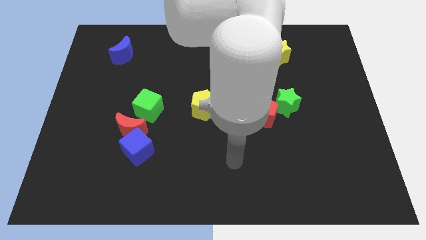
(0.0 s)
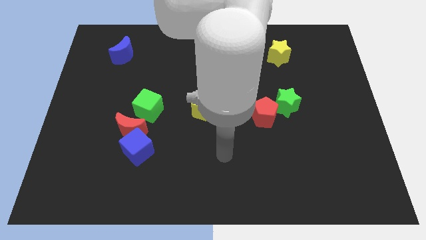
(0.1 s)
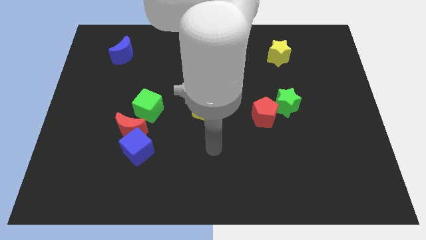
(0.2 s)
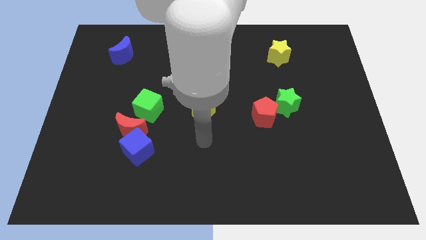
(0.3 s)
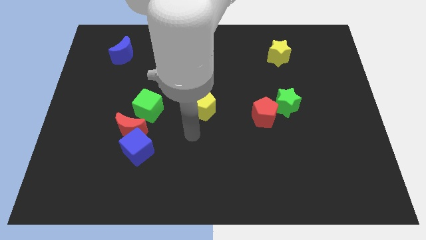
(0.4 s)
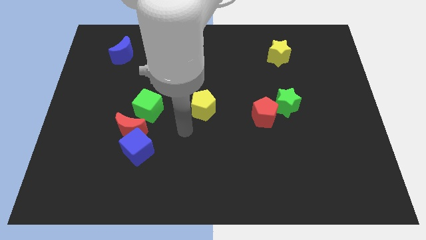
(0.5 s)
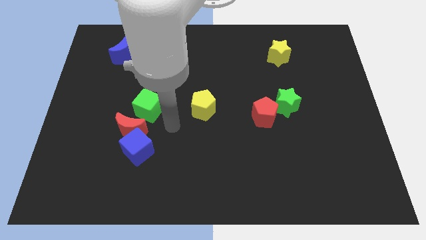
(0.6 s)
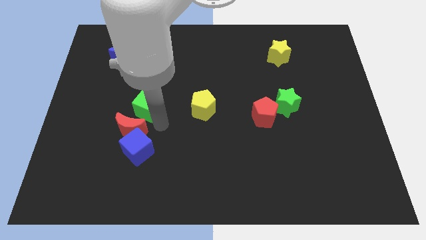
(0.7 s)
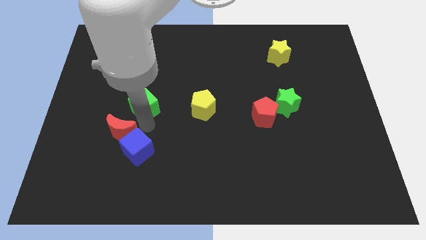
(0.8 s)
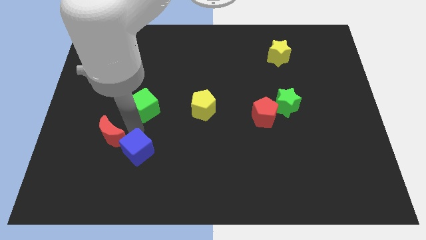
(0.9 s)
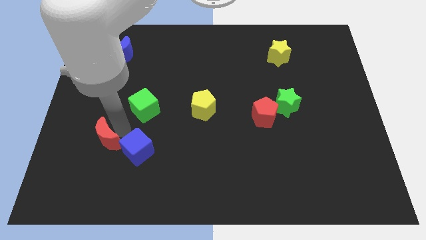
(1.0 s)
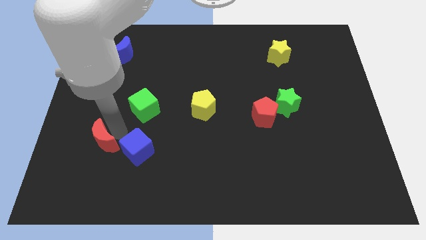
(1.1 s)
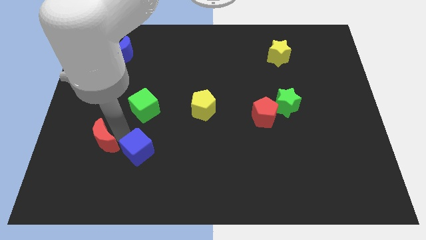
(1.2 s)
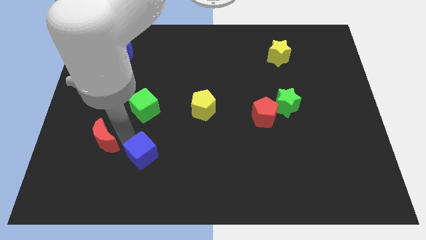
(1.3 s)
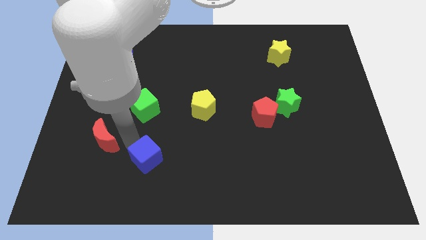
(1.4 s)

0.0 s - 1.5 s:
separate the blue cube from the red moon

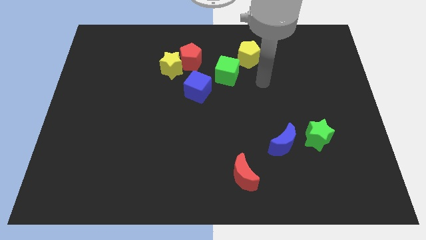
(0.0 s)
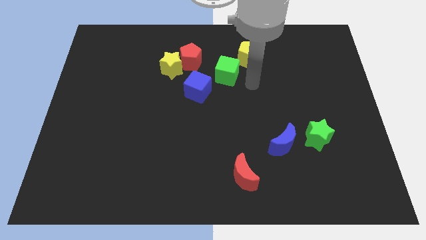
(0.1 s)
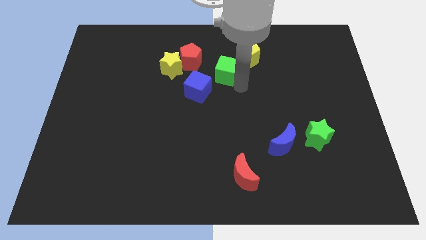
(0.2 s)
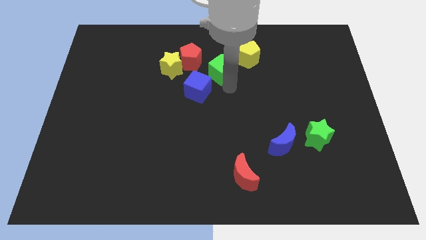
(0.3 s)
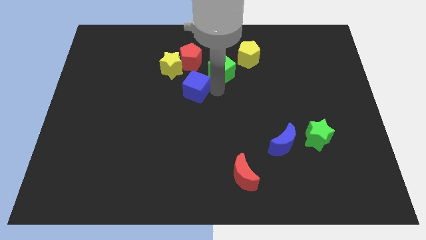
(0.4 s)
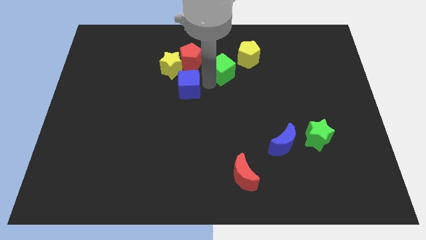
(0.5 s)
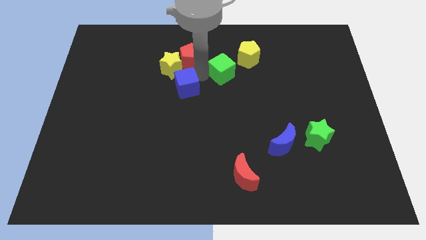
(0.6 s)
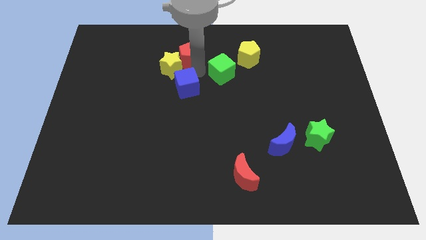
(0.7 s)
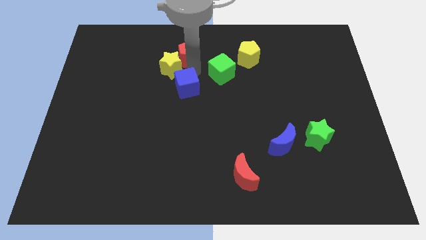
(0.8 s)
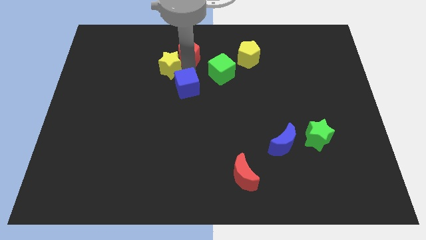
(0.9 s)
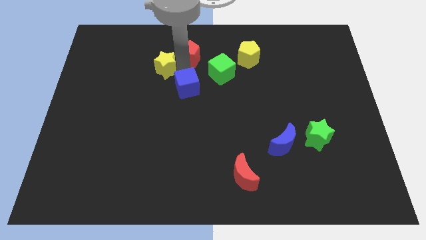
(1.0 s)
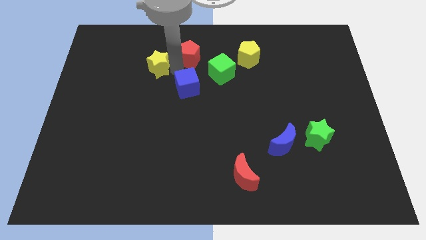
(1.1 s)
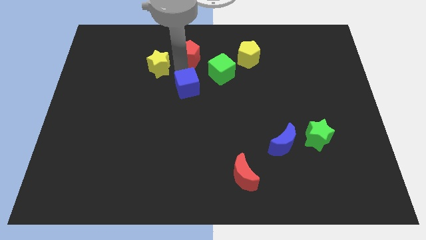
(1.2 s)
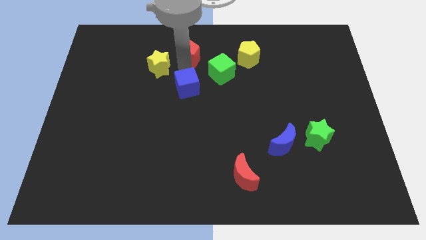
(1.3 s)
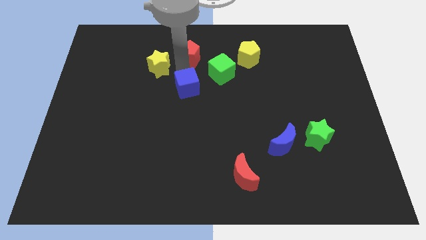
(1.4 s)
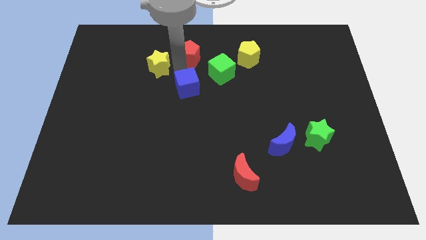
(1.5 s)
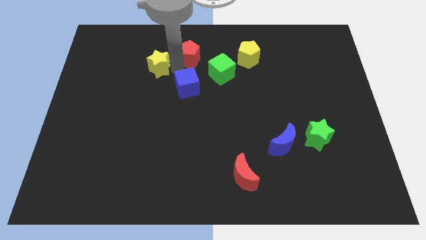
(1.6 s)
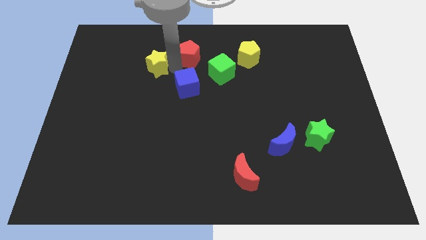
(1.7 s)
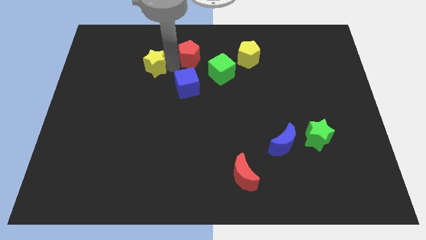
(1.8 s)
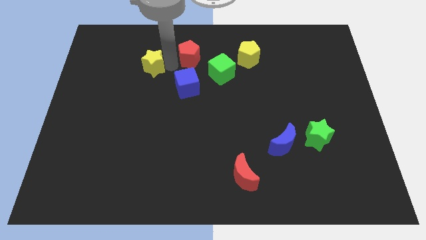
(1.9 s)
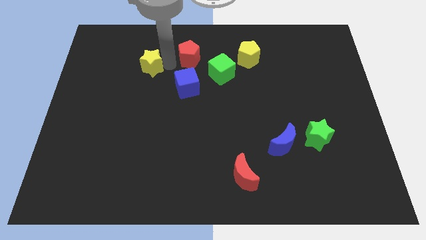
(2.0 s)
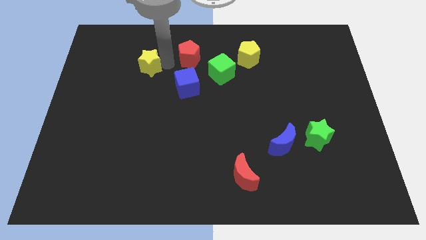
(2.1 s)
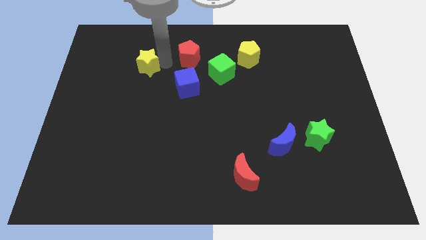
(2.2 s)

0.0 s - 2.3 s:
move the yellow star away from the red pentagon and blue cube

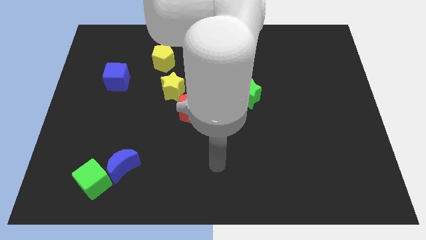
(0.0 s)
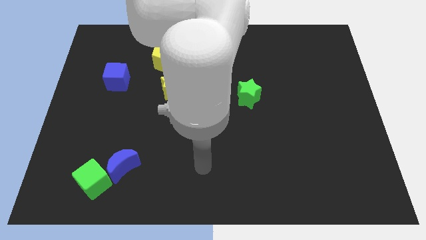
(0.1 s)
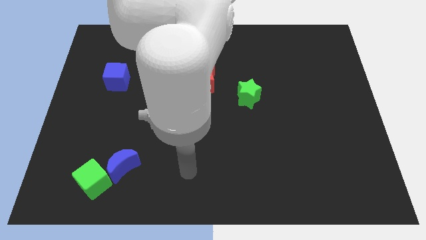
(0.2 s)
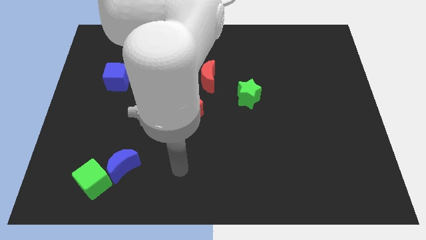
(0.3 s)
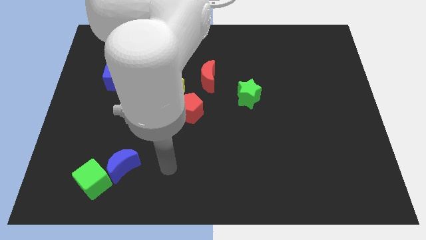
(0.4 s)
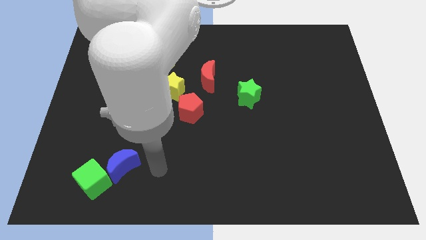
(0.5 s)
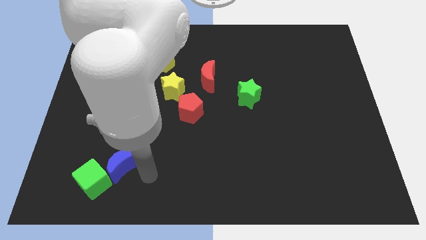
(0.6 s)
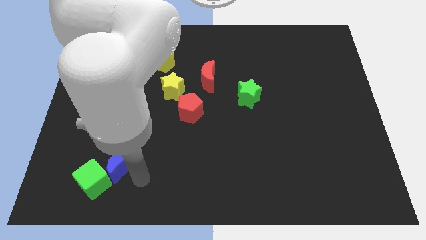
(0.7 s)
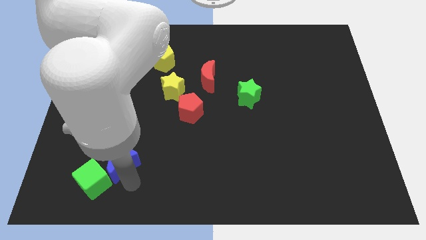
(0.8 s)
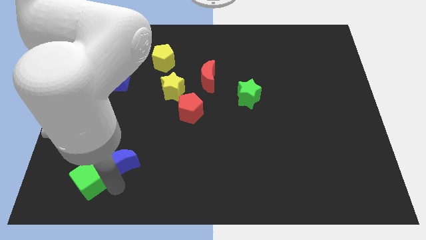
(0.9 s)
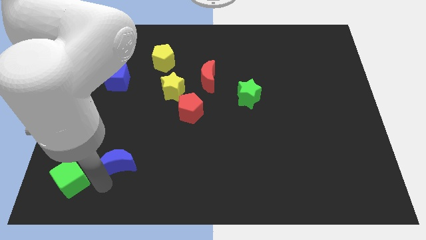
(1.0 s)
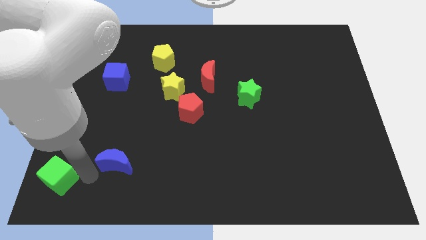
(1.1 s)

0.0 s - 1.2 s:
pull the blue moon apart from the green cube

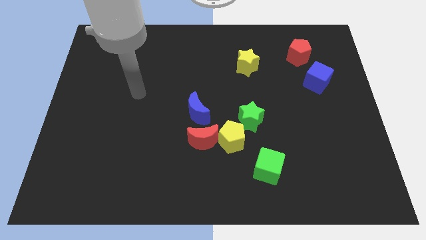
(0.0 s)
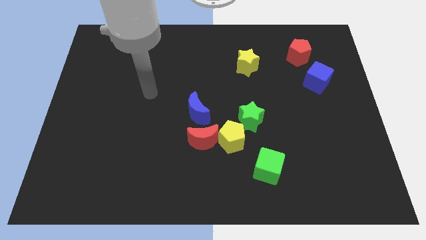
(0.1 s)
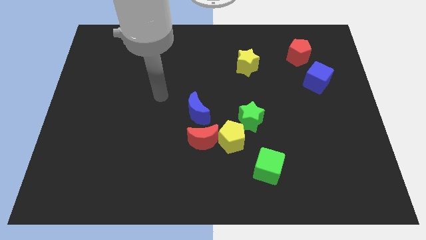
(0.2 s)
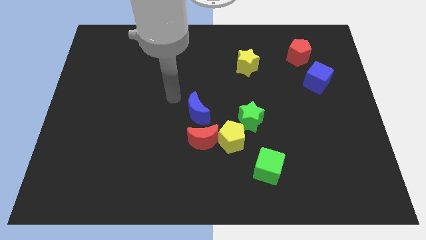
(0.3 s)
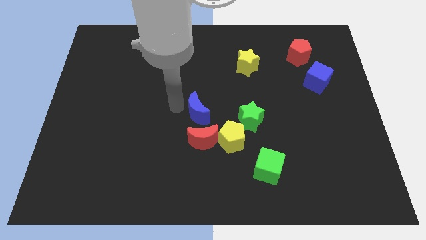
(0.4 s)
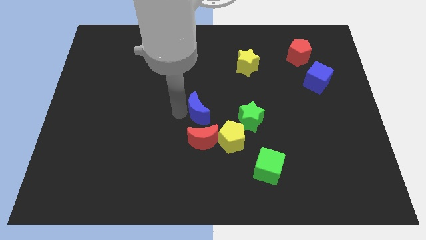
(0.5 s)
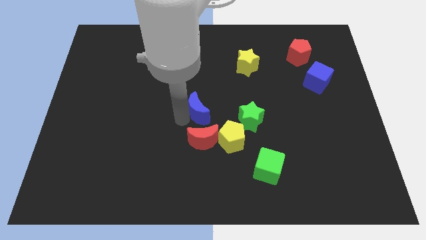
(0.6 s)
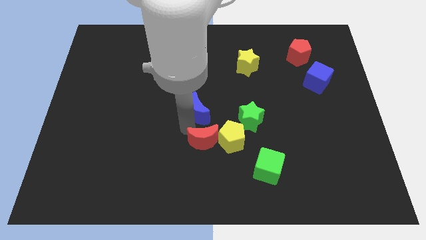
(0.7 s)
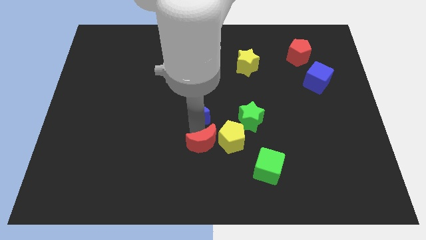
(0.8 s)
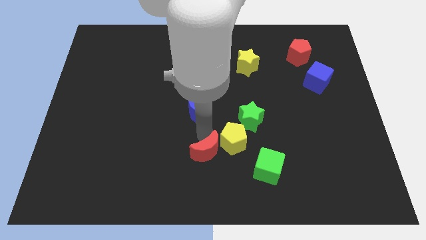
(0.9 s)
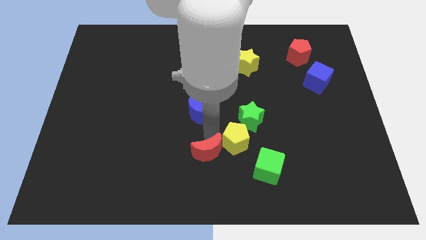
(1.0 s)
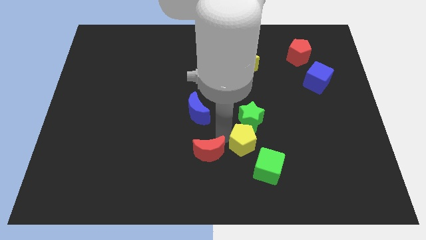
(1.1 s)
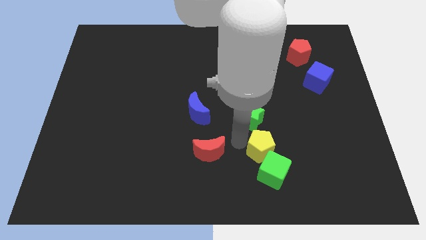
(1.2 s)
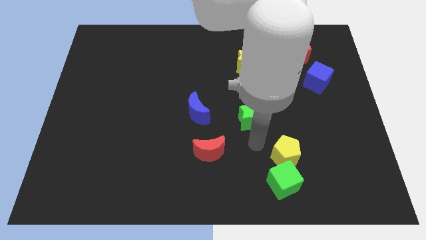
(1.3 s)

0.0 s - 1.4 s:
move the green star away from the yellow pentagon

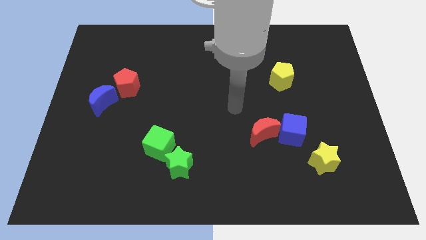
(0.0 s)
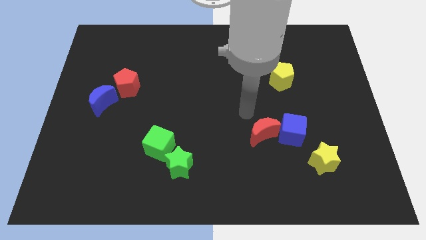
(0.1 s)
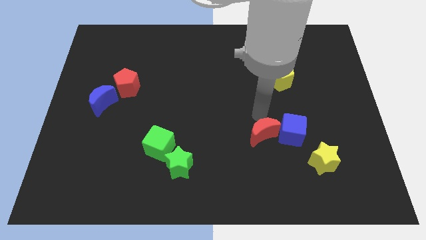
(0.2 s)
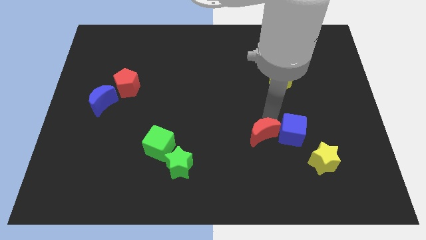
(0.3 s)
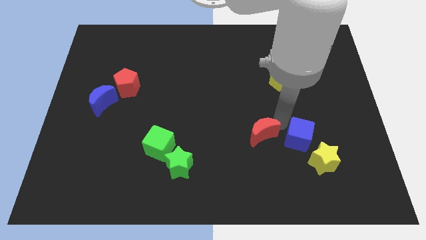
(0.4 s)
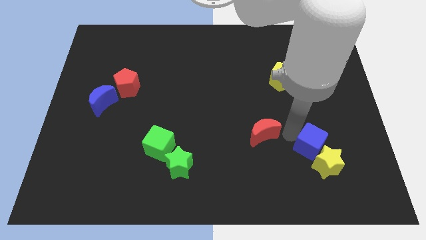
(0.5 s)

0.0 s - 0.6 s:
pull the red moon apart from the blue cube

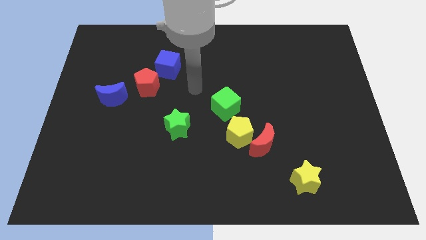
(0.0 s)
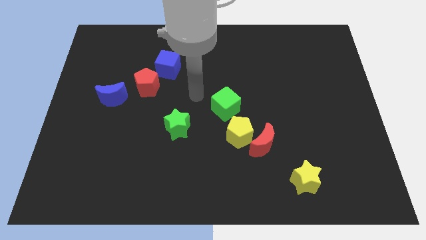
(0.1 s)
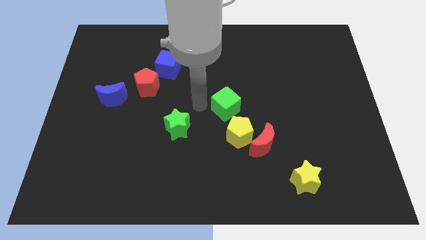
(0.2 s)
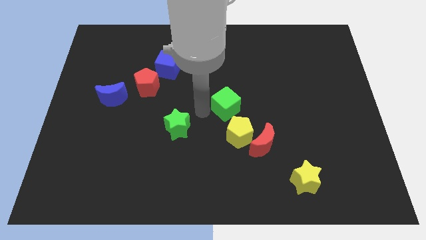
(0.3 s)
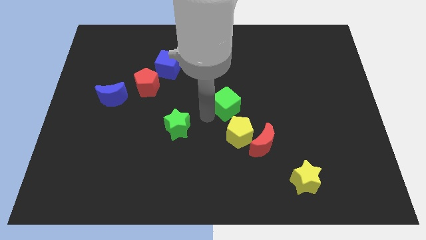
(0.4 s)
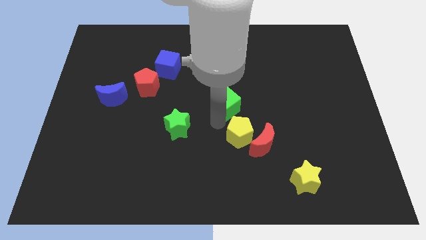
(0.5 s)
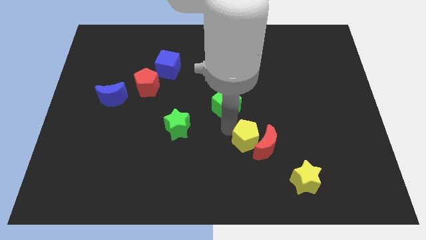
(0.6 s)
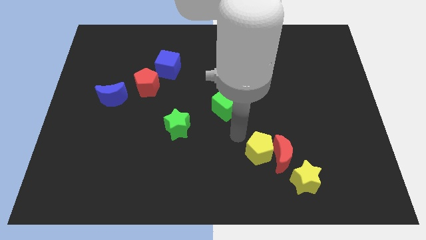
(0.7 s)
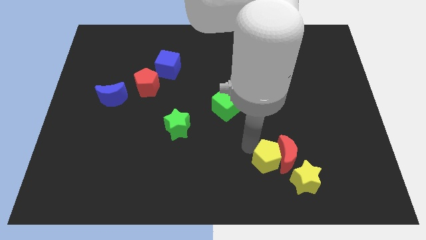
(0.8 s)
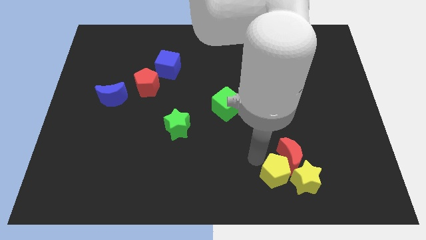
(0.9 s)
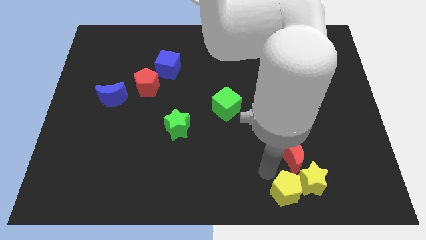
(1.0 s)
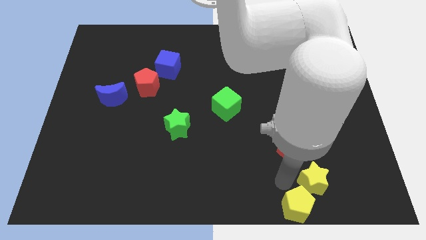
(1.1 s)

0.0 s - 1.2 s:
move the red moon away from the yellow pentagon

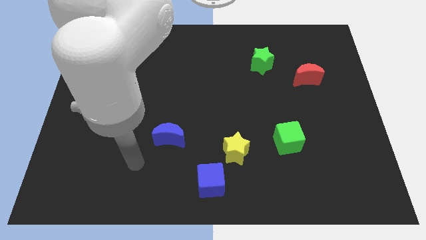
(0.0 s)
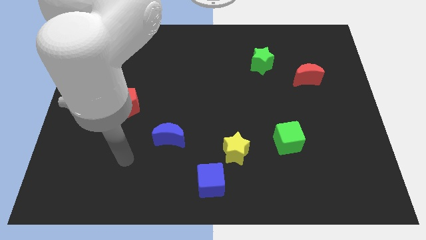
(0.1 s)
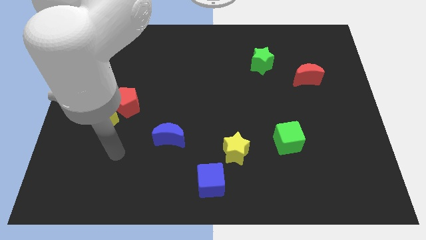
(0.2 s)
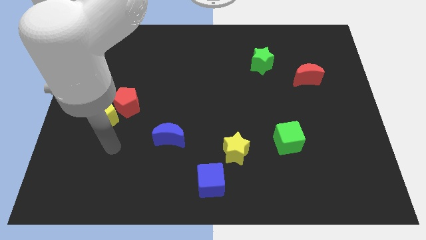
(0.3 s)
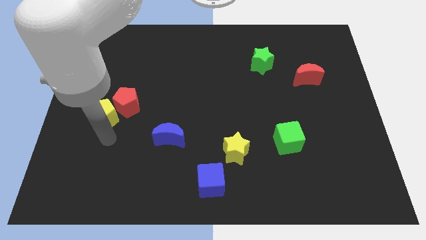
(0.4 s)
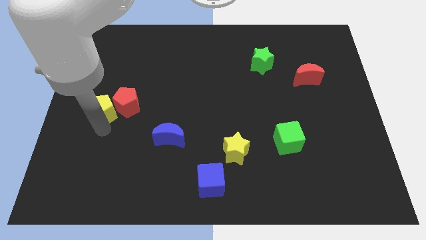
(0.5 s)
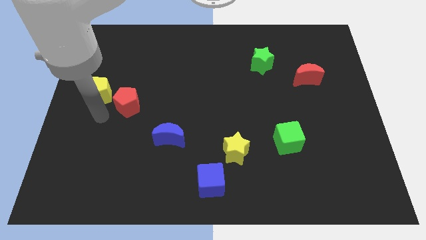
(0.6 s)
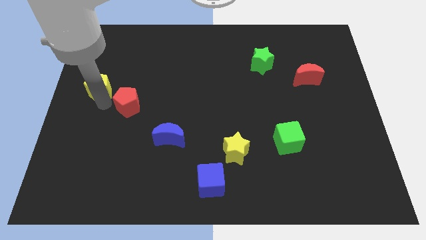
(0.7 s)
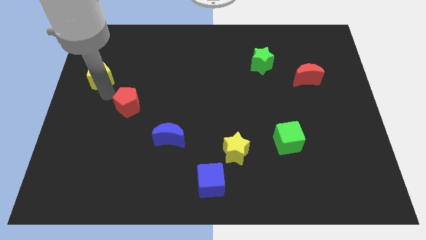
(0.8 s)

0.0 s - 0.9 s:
move the red pentagon away from the yellow pentagon
